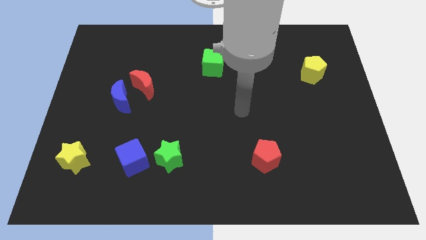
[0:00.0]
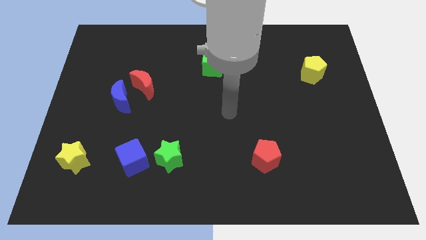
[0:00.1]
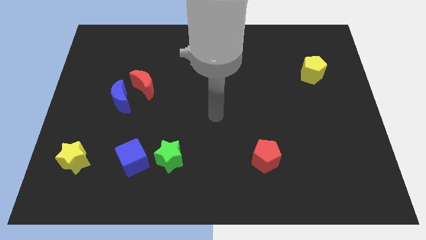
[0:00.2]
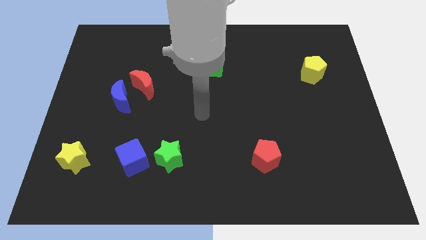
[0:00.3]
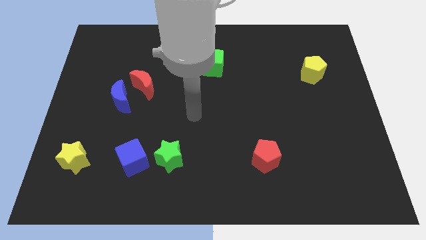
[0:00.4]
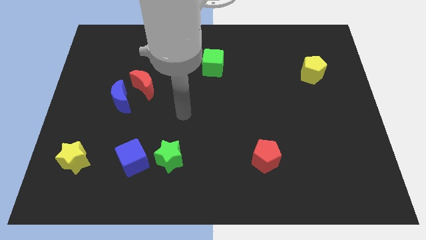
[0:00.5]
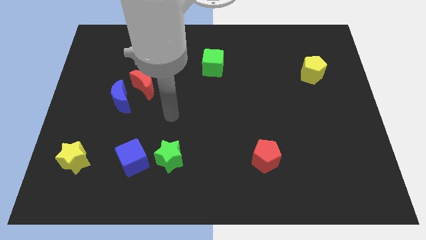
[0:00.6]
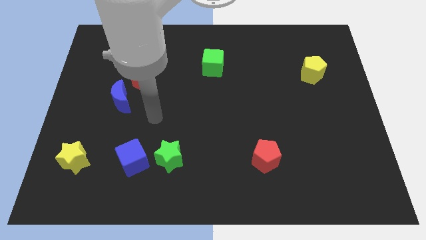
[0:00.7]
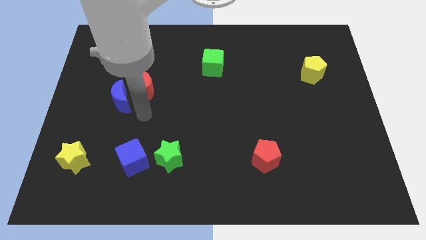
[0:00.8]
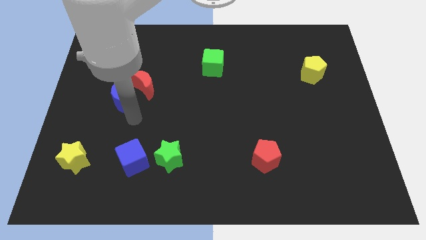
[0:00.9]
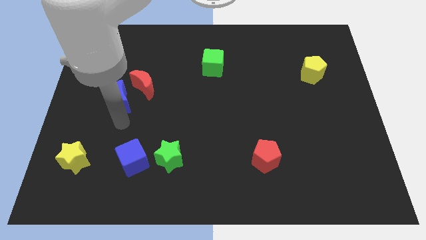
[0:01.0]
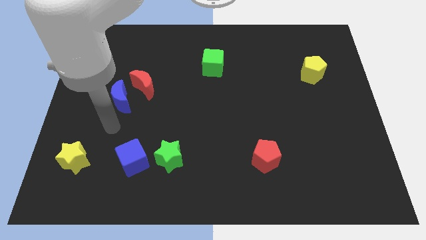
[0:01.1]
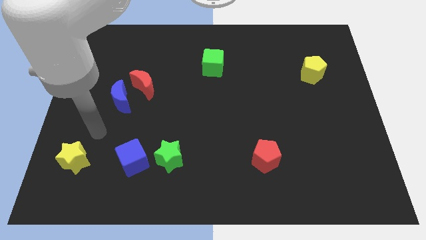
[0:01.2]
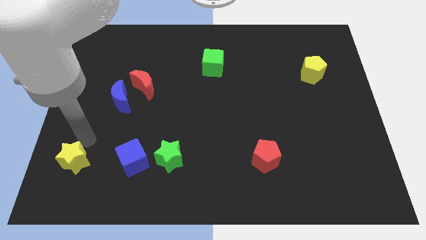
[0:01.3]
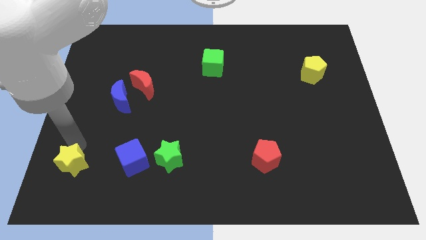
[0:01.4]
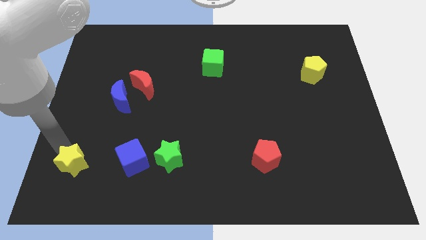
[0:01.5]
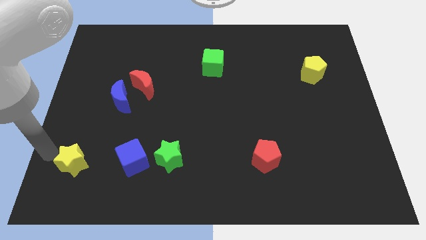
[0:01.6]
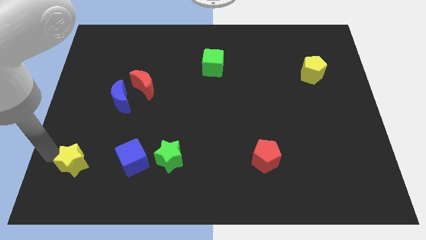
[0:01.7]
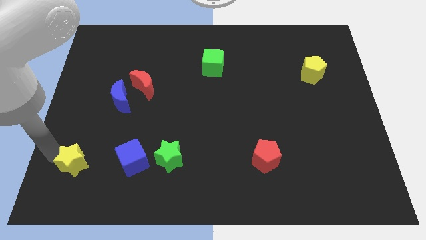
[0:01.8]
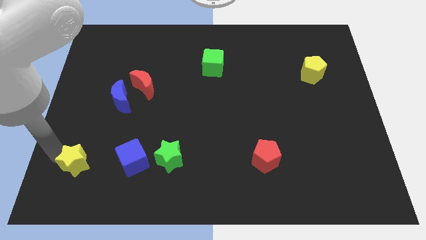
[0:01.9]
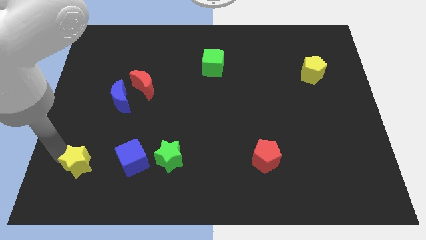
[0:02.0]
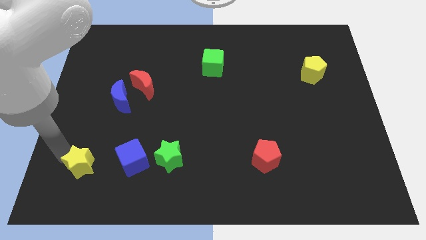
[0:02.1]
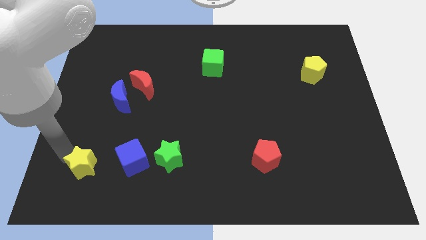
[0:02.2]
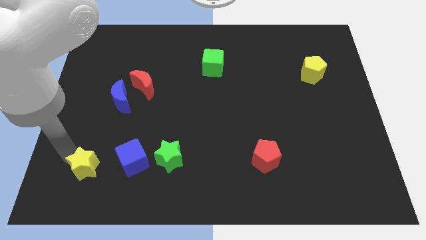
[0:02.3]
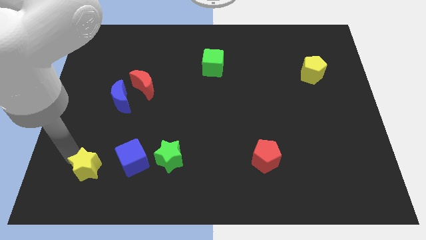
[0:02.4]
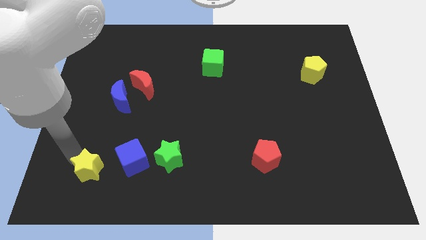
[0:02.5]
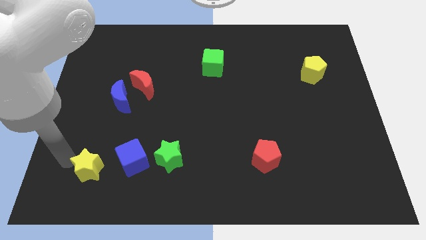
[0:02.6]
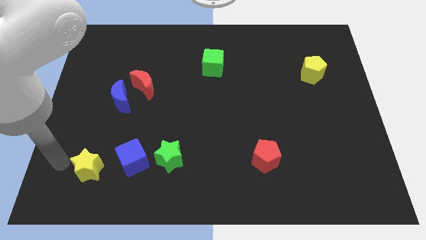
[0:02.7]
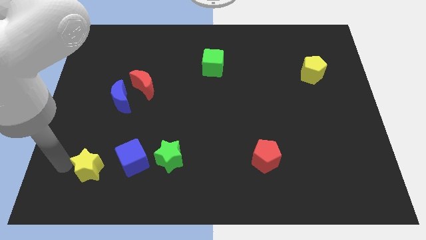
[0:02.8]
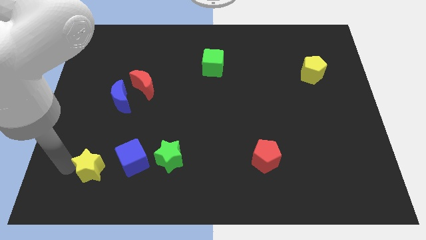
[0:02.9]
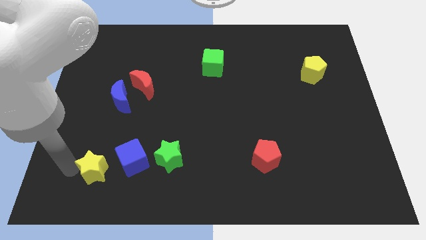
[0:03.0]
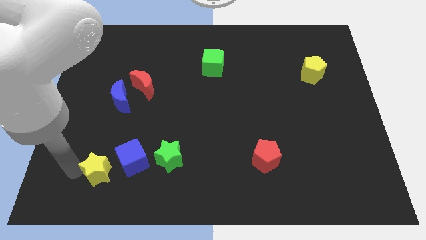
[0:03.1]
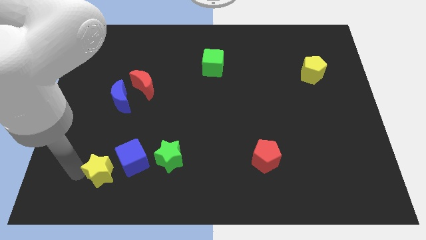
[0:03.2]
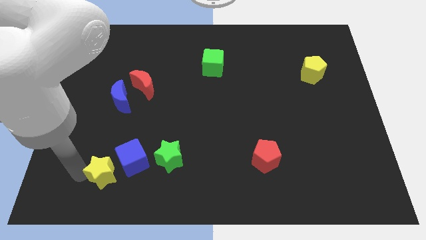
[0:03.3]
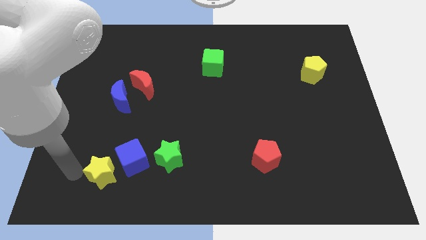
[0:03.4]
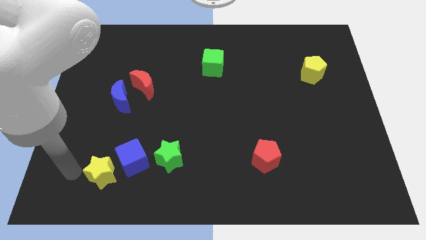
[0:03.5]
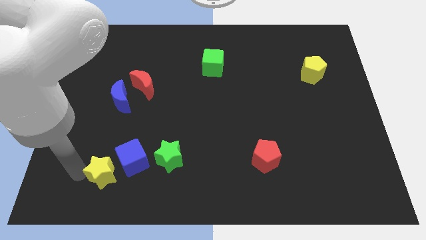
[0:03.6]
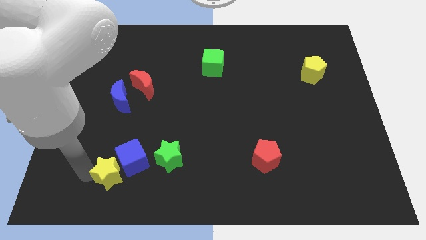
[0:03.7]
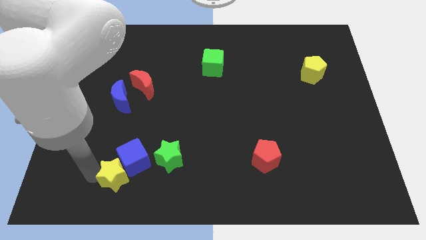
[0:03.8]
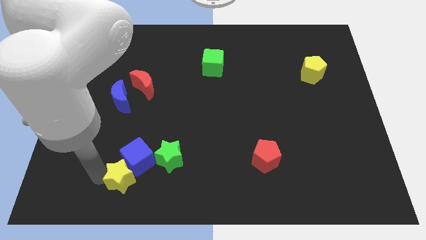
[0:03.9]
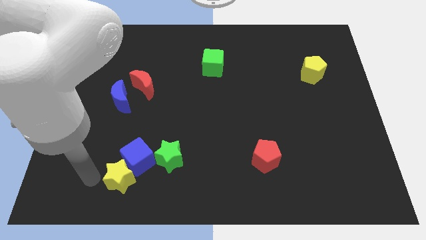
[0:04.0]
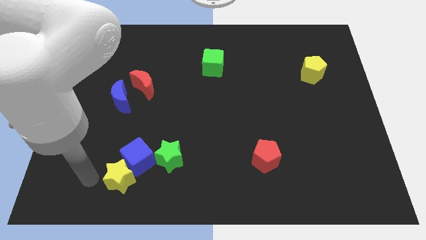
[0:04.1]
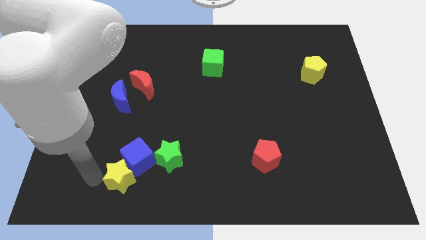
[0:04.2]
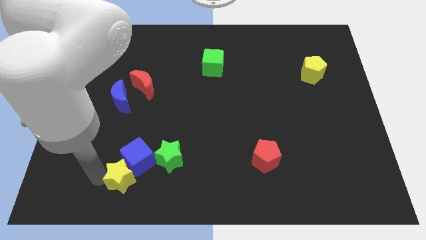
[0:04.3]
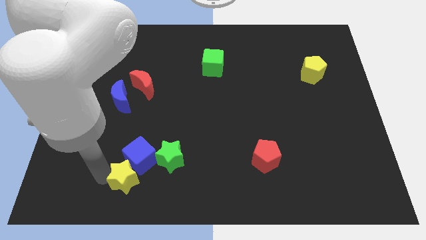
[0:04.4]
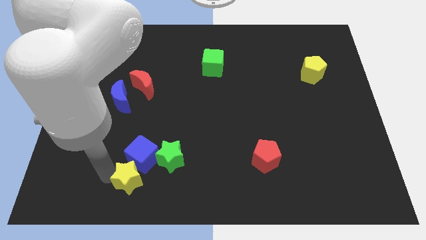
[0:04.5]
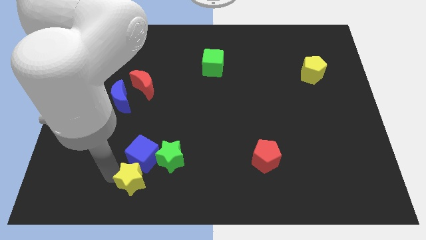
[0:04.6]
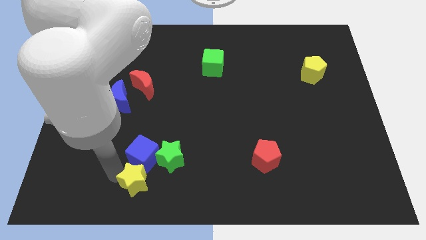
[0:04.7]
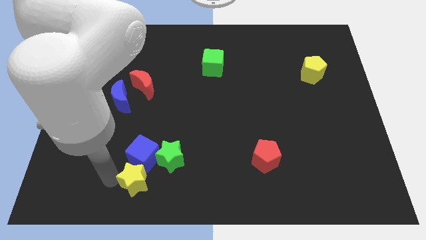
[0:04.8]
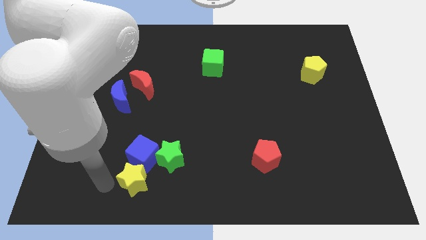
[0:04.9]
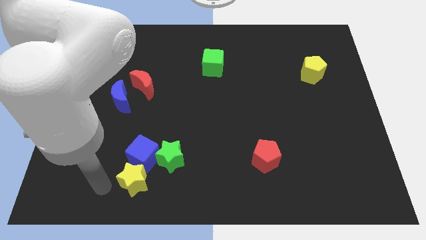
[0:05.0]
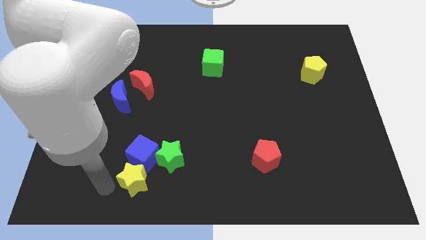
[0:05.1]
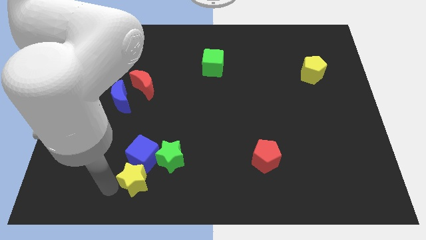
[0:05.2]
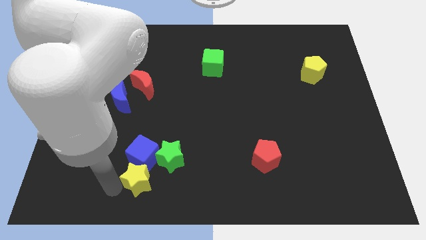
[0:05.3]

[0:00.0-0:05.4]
push the yellow star to the bottom right side of the blue cube

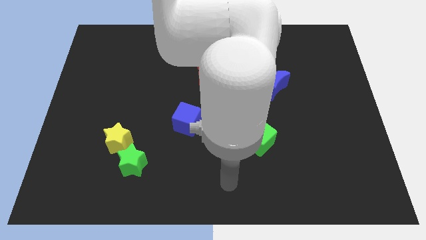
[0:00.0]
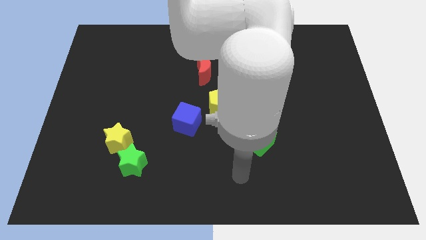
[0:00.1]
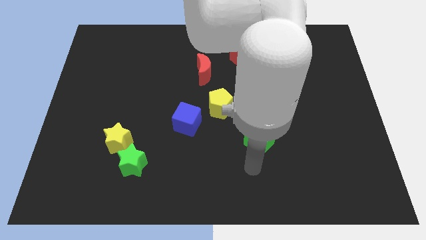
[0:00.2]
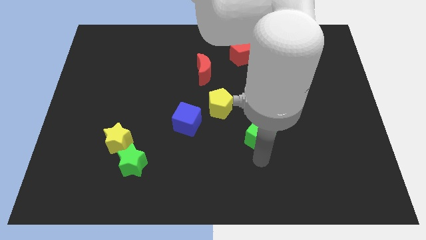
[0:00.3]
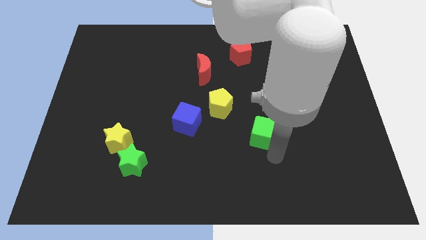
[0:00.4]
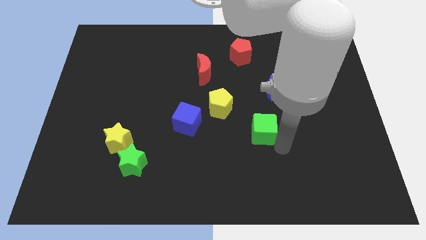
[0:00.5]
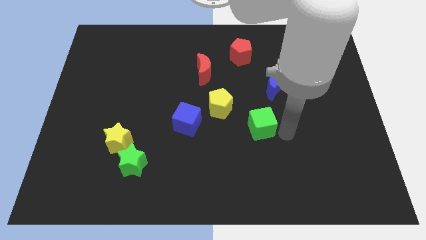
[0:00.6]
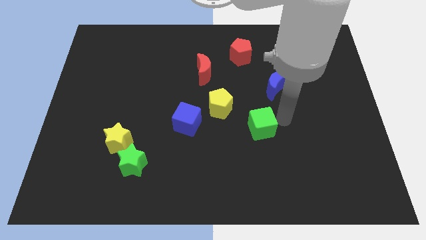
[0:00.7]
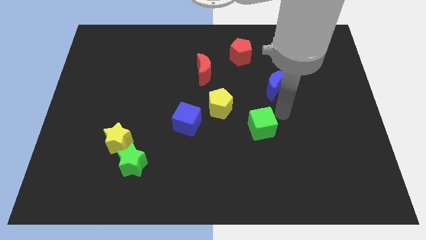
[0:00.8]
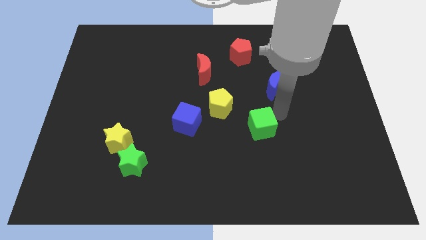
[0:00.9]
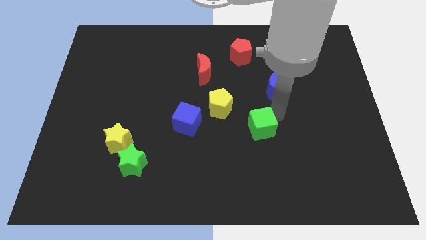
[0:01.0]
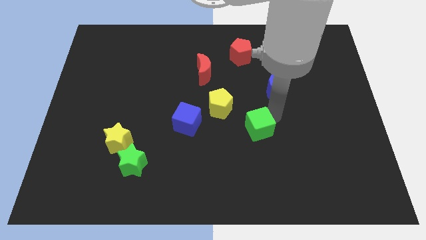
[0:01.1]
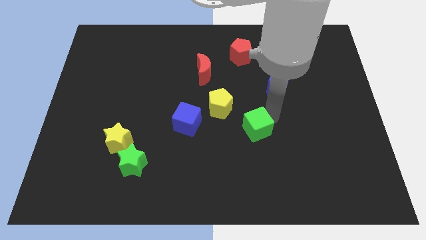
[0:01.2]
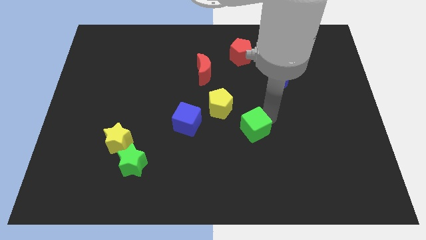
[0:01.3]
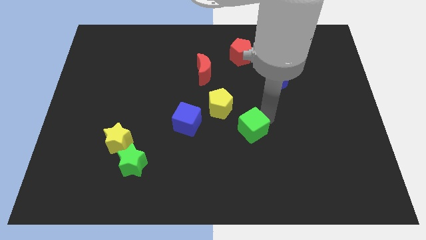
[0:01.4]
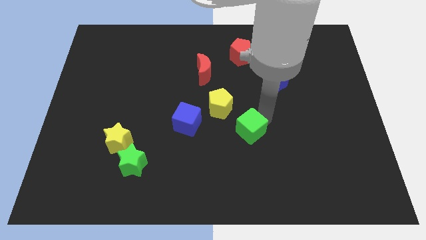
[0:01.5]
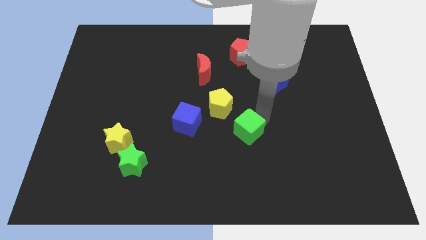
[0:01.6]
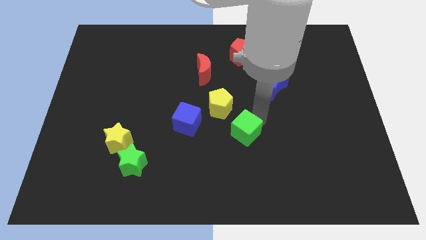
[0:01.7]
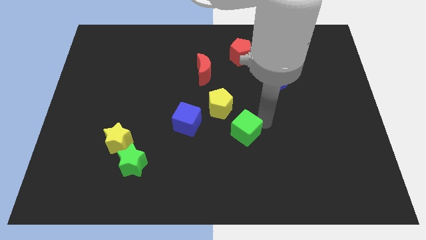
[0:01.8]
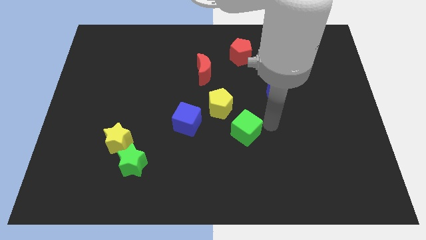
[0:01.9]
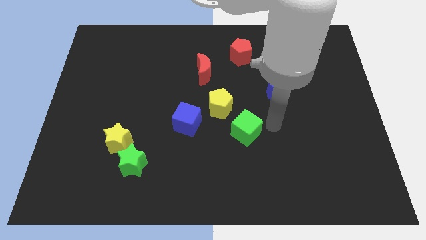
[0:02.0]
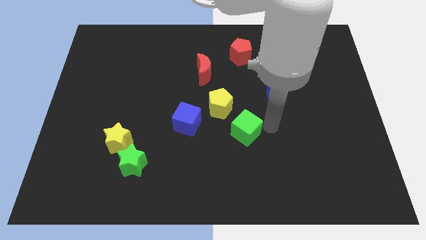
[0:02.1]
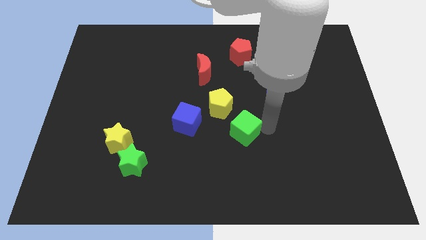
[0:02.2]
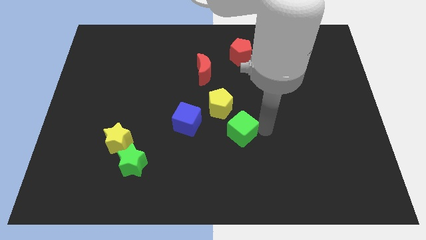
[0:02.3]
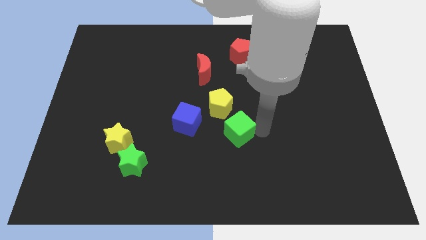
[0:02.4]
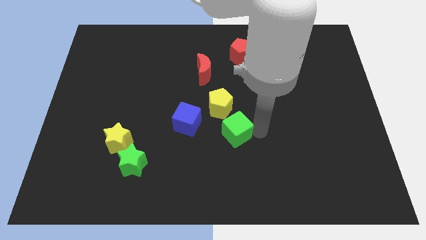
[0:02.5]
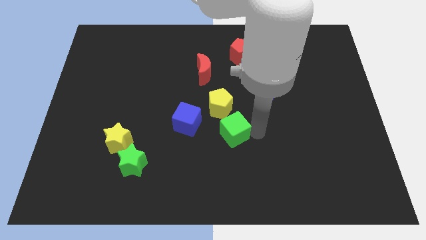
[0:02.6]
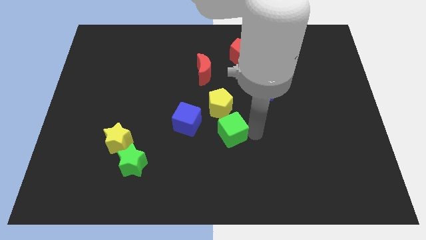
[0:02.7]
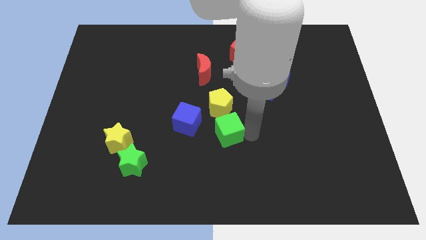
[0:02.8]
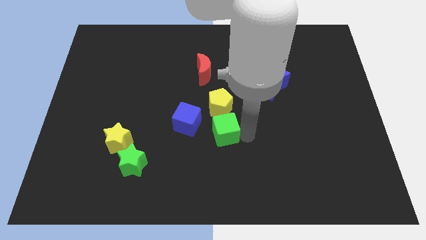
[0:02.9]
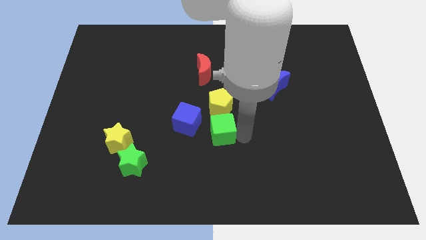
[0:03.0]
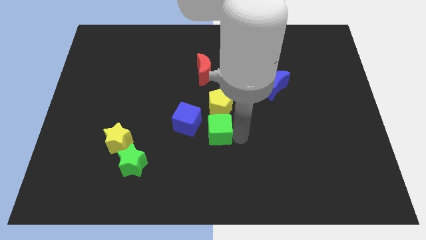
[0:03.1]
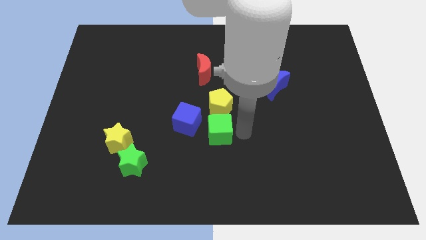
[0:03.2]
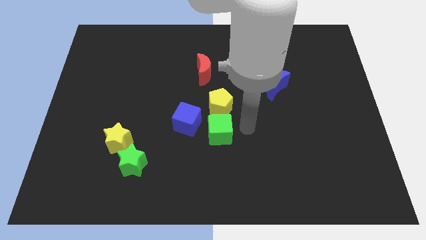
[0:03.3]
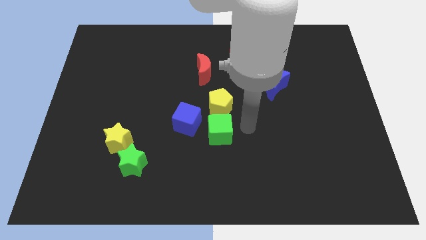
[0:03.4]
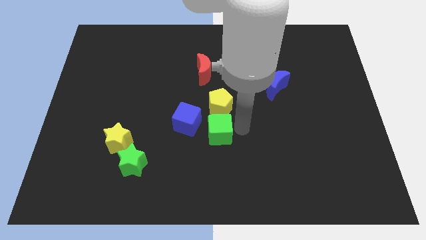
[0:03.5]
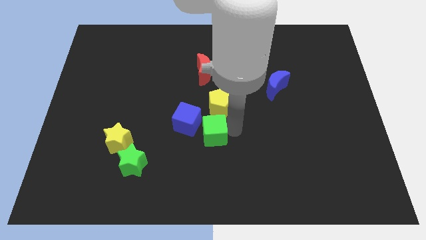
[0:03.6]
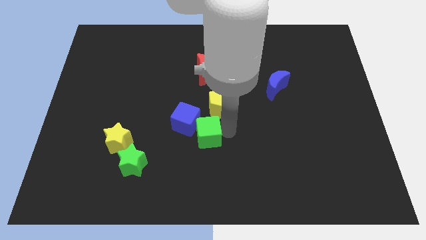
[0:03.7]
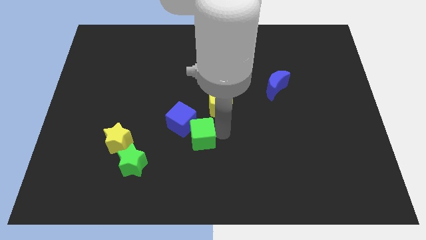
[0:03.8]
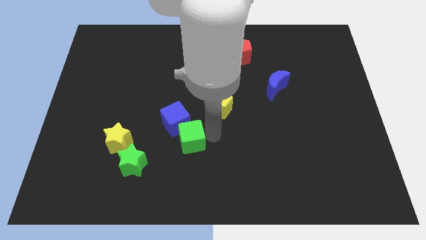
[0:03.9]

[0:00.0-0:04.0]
move the green cube to the right side of the yellow star
